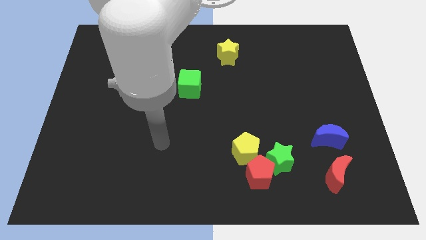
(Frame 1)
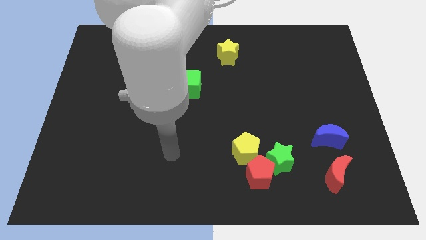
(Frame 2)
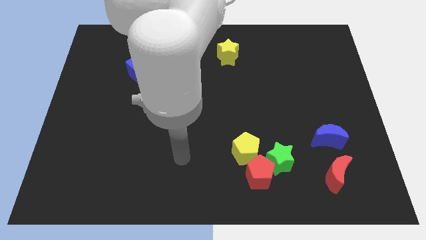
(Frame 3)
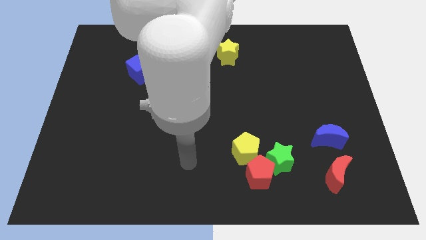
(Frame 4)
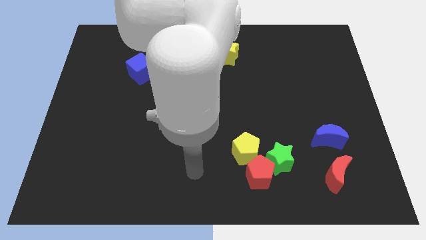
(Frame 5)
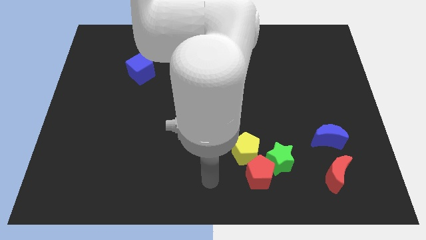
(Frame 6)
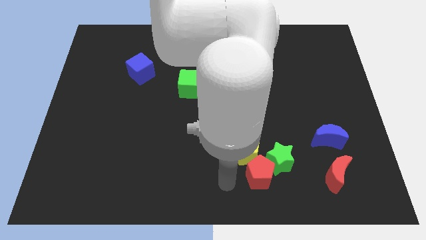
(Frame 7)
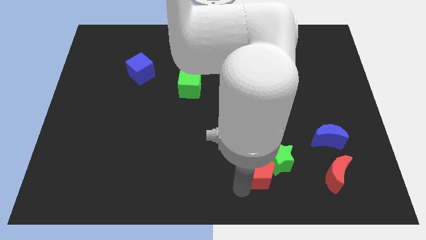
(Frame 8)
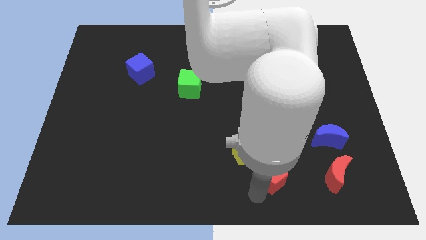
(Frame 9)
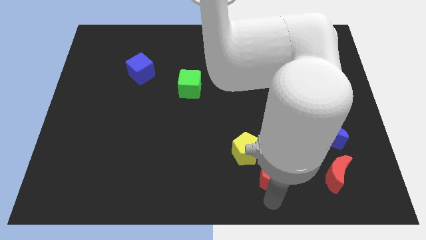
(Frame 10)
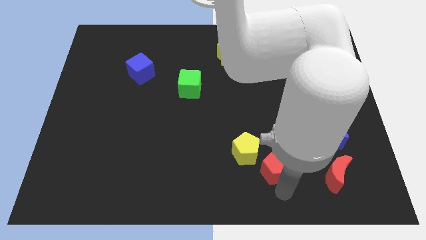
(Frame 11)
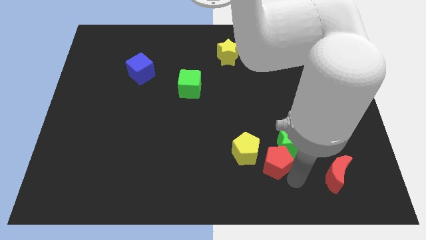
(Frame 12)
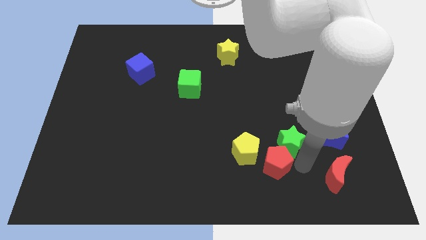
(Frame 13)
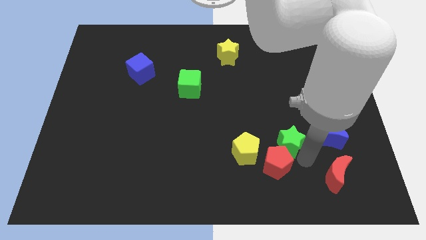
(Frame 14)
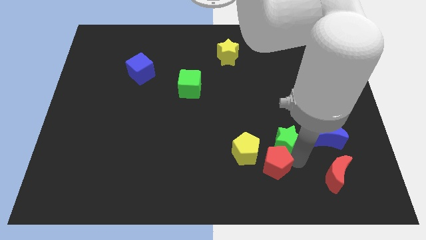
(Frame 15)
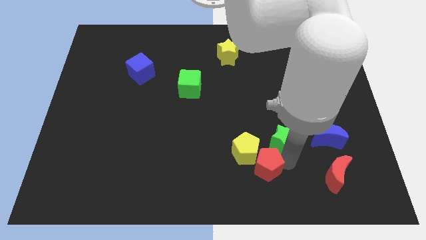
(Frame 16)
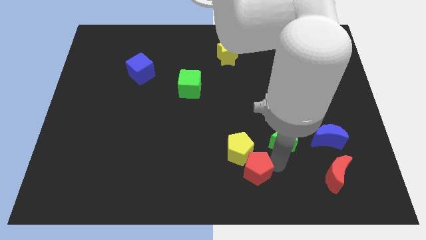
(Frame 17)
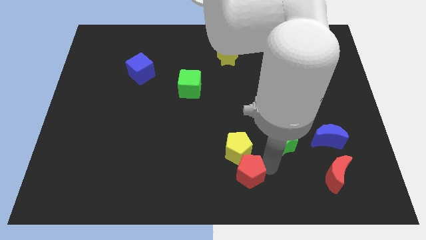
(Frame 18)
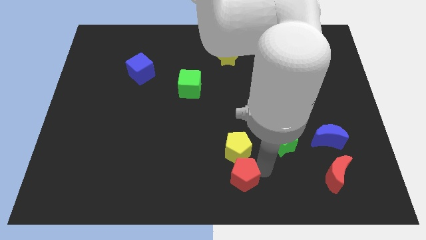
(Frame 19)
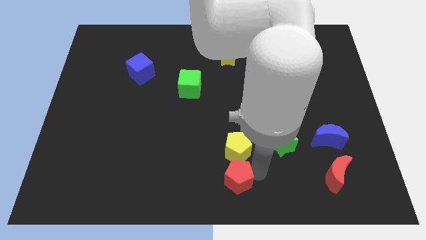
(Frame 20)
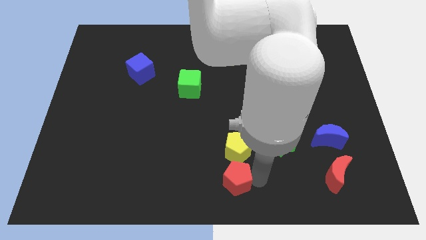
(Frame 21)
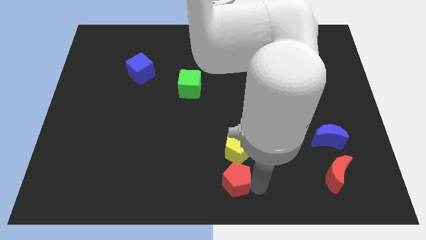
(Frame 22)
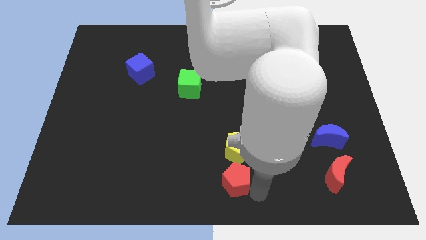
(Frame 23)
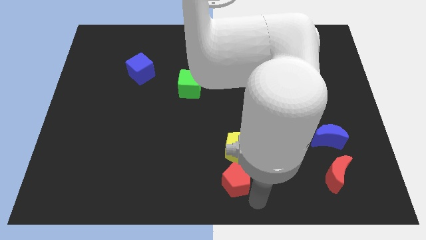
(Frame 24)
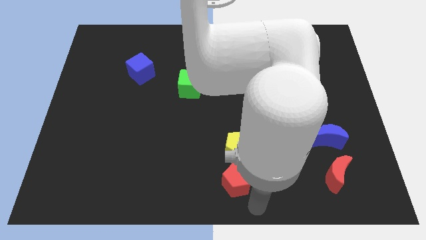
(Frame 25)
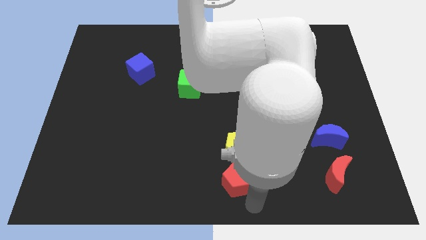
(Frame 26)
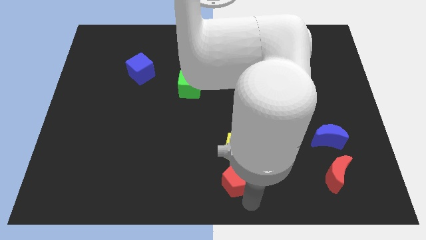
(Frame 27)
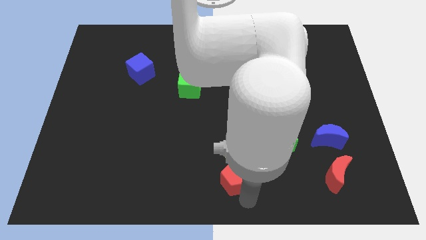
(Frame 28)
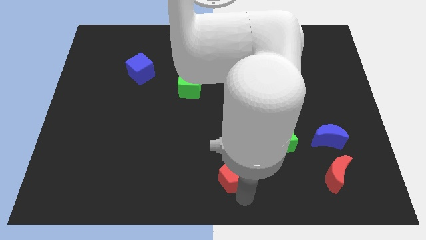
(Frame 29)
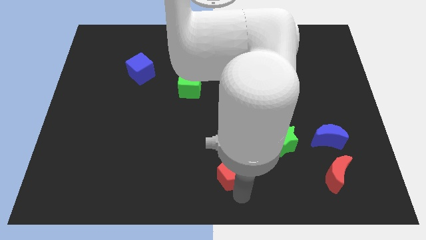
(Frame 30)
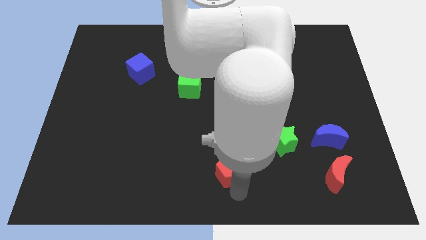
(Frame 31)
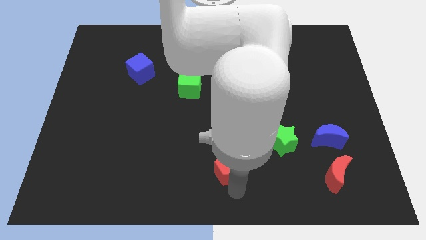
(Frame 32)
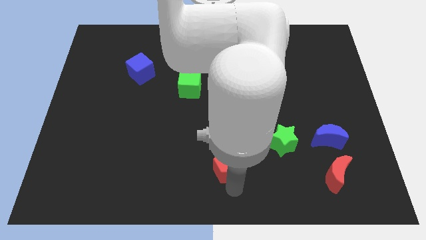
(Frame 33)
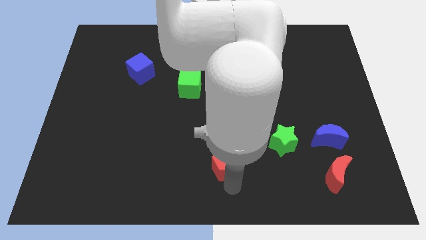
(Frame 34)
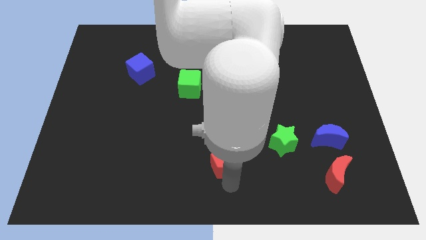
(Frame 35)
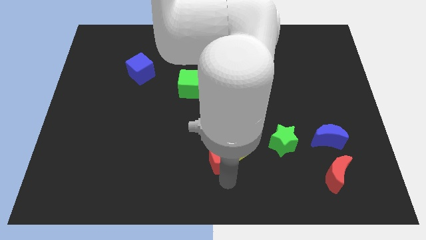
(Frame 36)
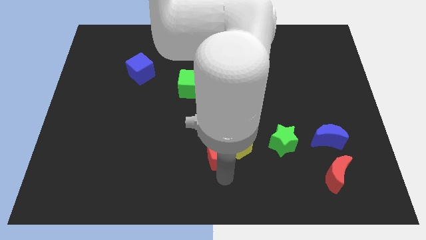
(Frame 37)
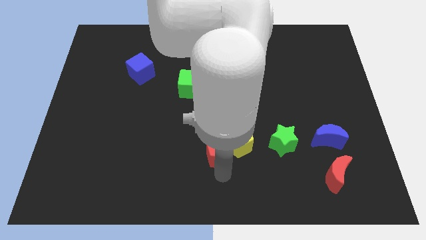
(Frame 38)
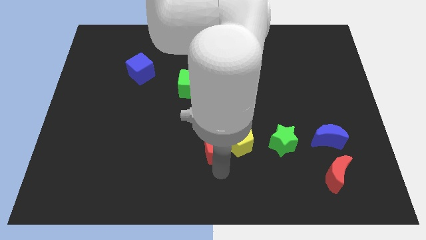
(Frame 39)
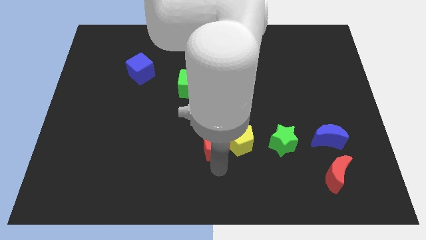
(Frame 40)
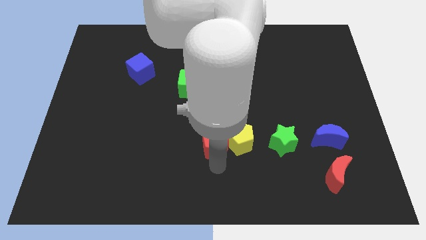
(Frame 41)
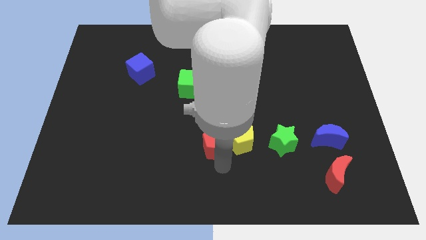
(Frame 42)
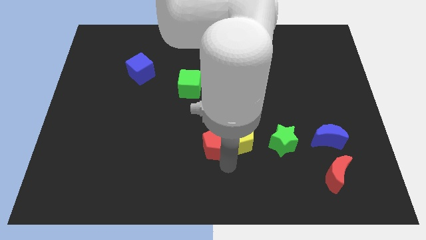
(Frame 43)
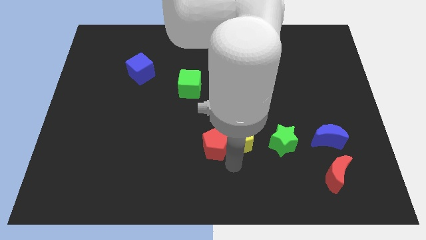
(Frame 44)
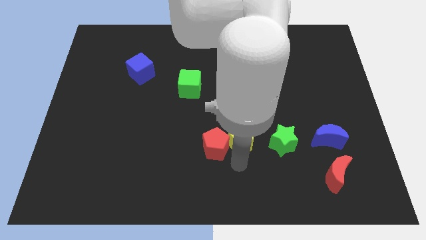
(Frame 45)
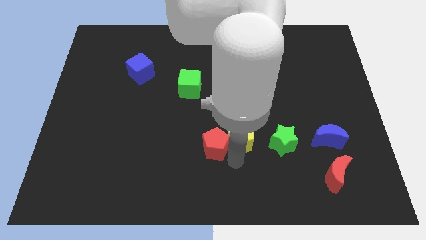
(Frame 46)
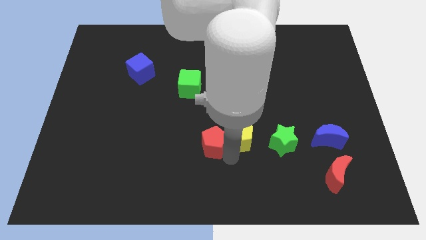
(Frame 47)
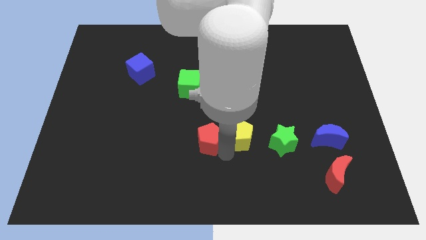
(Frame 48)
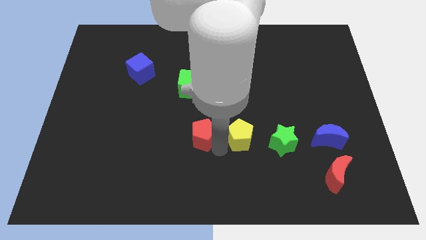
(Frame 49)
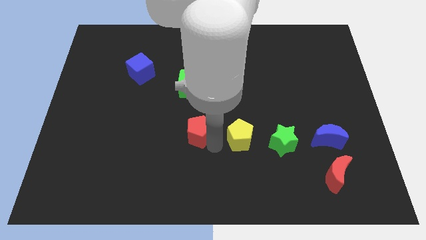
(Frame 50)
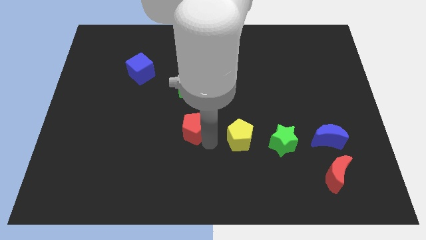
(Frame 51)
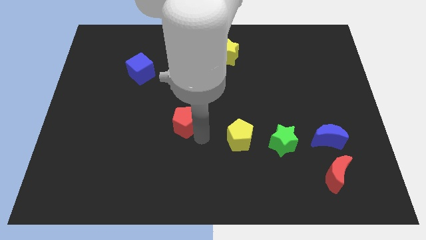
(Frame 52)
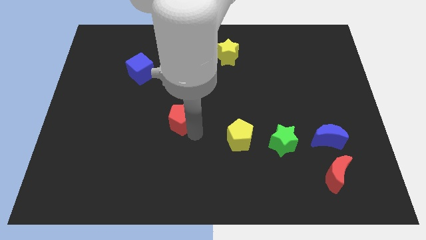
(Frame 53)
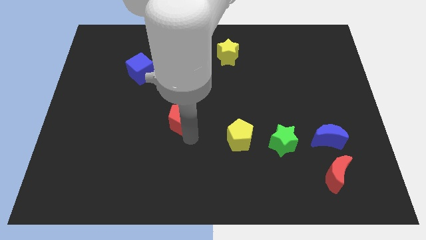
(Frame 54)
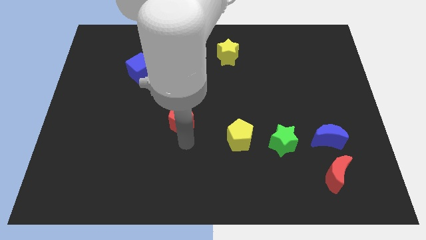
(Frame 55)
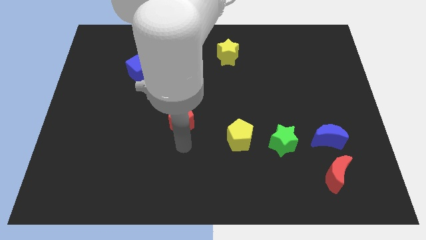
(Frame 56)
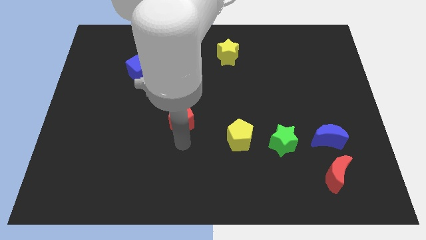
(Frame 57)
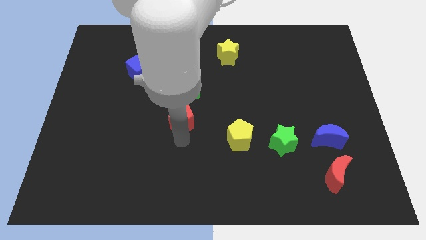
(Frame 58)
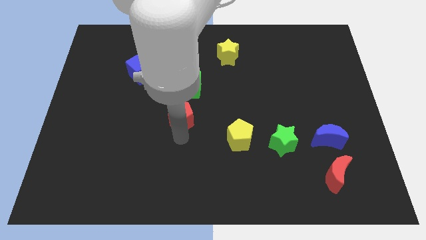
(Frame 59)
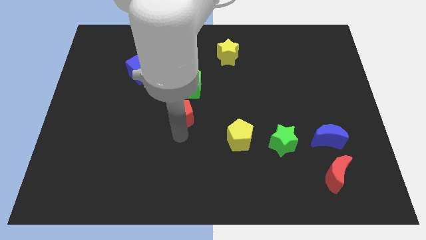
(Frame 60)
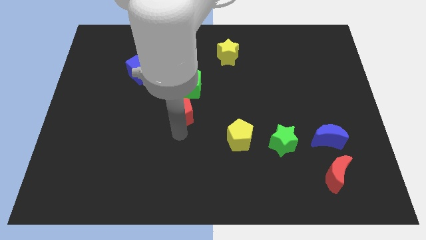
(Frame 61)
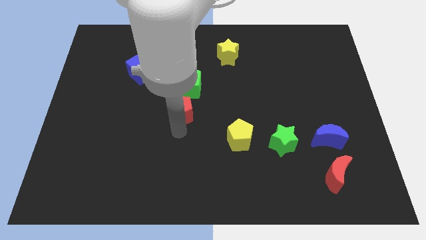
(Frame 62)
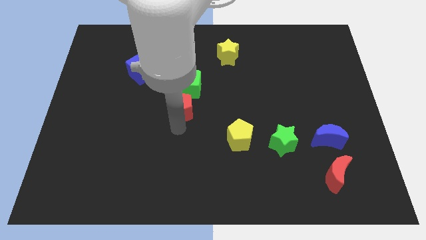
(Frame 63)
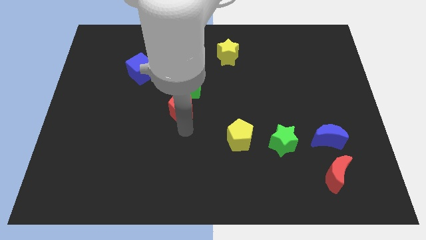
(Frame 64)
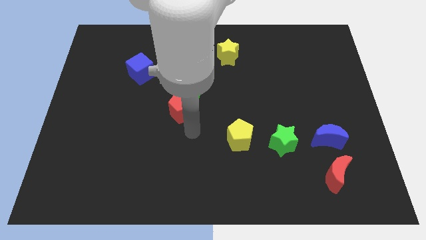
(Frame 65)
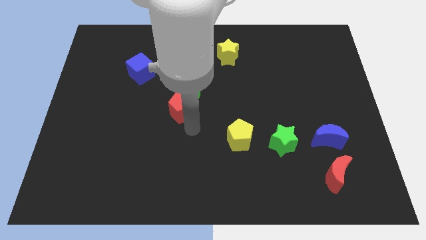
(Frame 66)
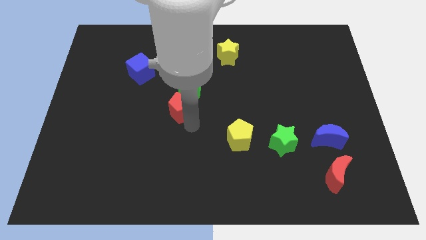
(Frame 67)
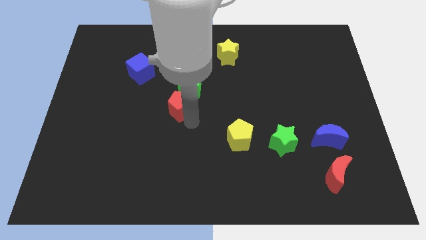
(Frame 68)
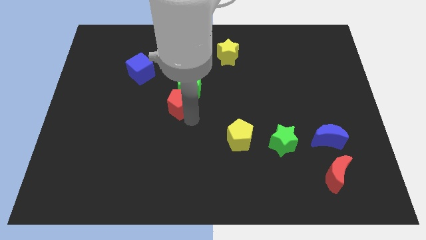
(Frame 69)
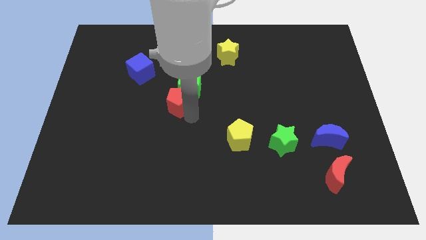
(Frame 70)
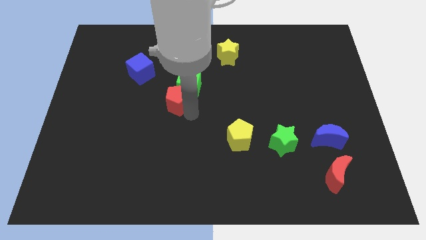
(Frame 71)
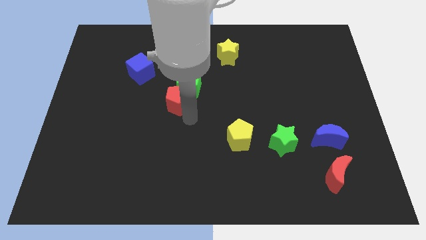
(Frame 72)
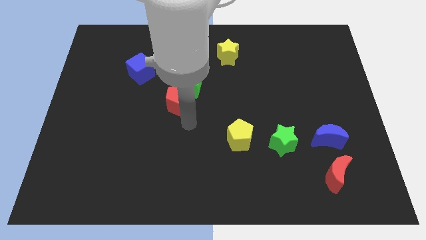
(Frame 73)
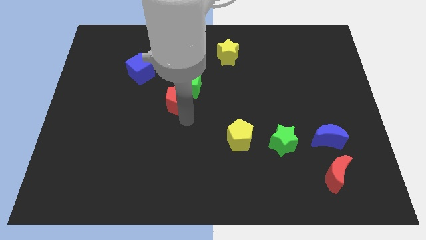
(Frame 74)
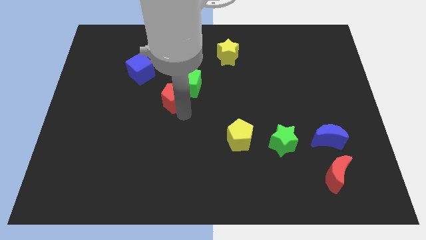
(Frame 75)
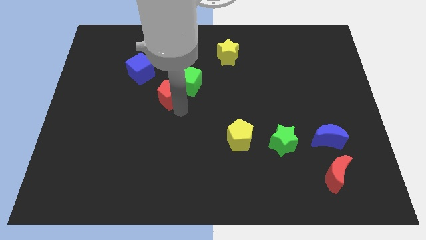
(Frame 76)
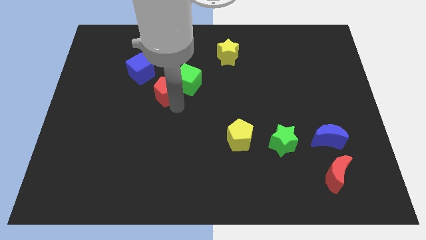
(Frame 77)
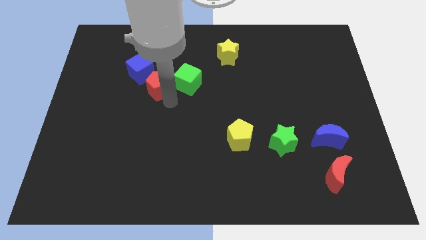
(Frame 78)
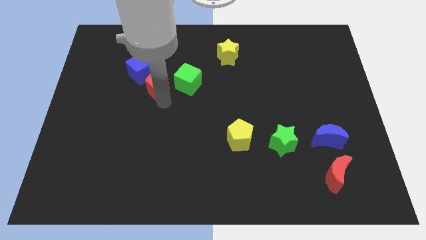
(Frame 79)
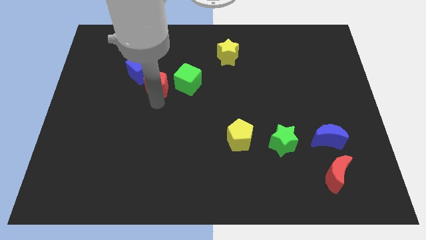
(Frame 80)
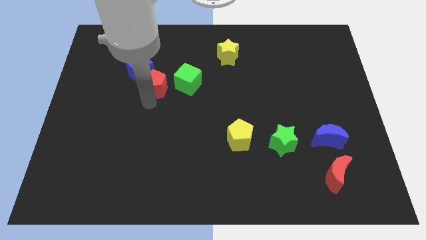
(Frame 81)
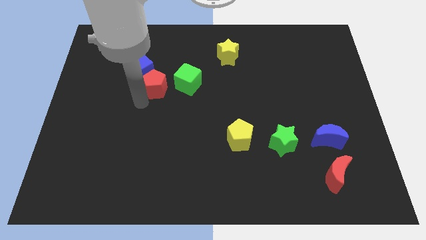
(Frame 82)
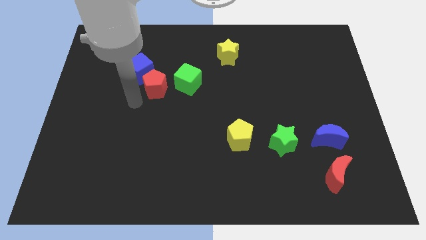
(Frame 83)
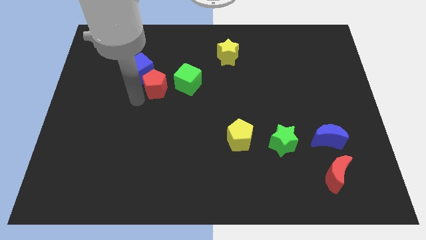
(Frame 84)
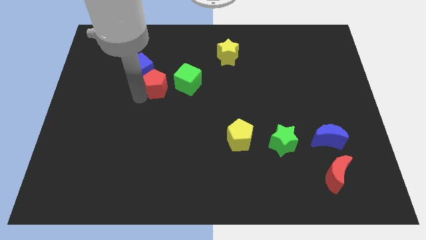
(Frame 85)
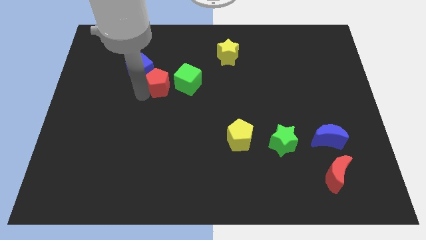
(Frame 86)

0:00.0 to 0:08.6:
put the red pentagon to the right of the blue cube
